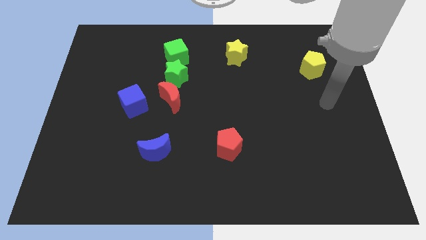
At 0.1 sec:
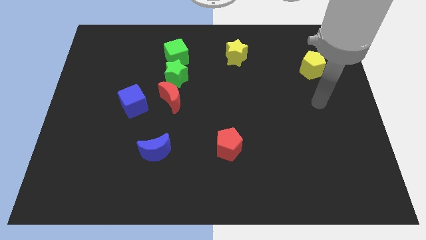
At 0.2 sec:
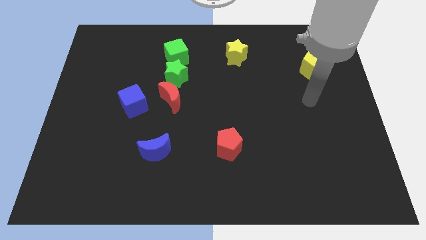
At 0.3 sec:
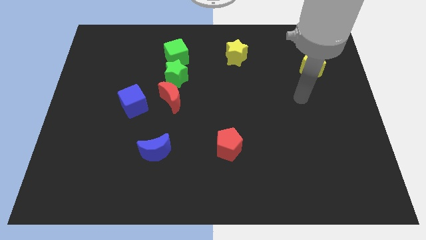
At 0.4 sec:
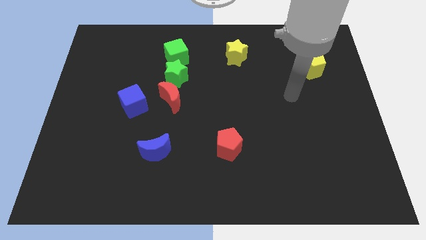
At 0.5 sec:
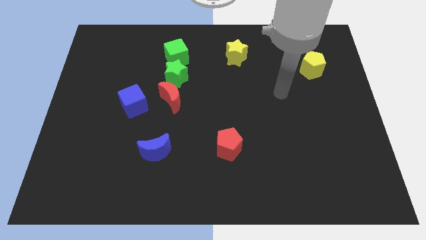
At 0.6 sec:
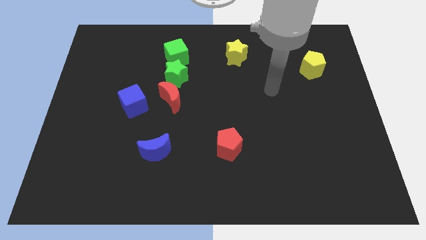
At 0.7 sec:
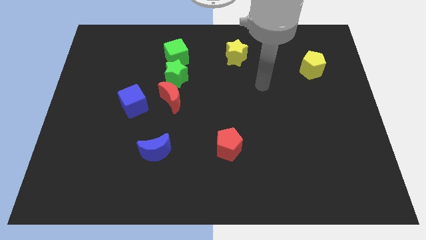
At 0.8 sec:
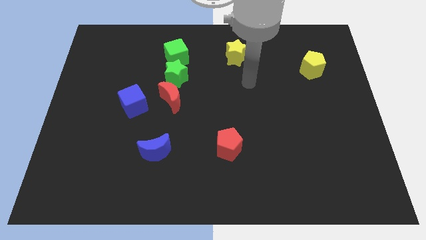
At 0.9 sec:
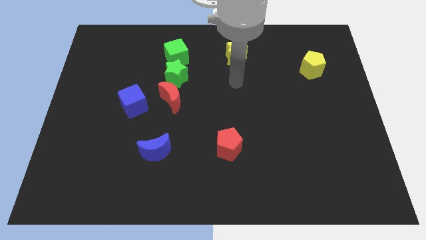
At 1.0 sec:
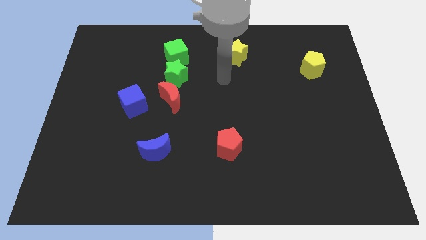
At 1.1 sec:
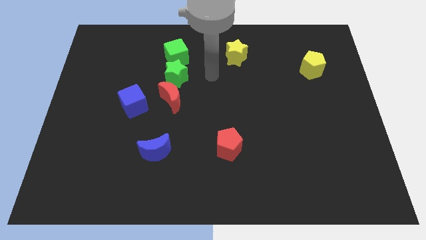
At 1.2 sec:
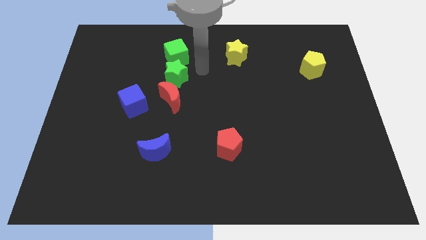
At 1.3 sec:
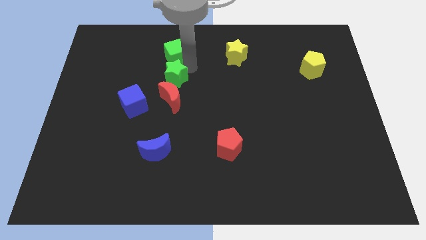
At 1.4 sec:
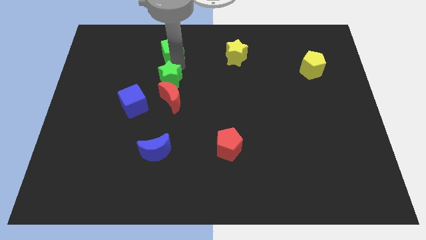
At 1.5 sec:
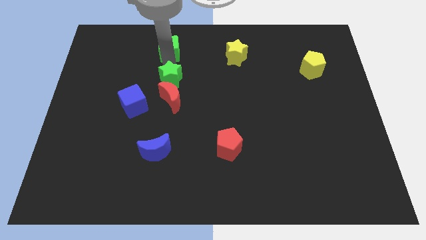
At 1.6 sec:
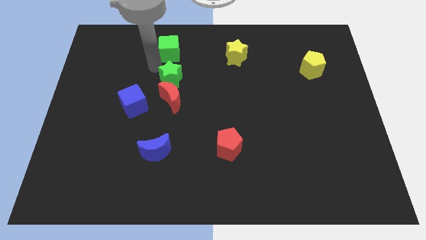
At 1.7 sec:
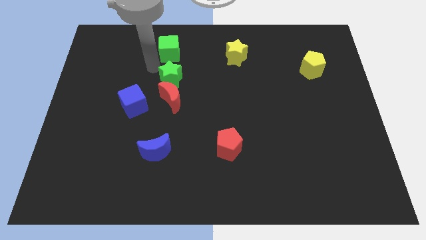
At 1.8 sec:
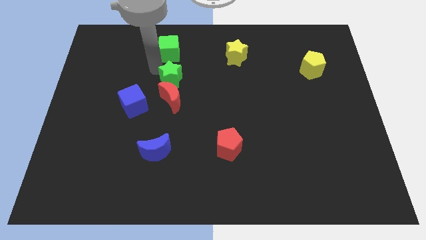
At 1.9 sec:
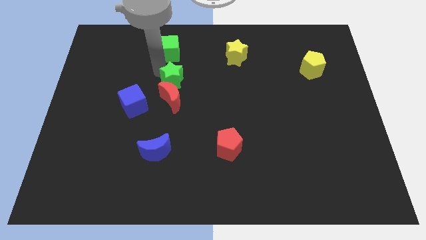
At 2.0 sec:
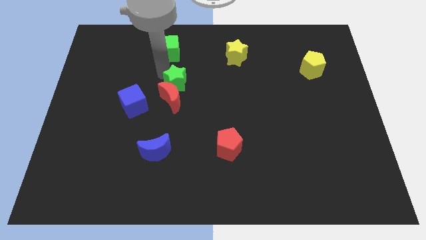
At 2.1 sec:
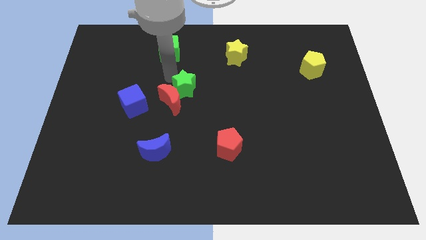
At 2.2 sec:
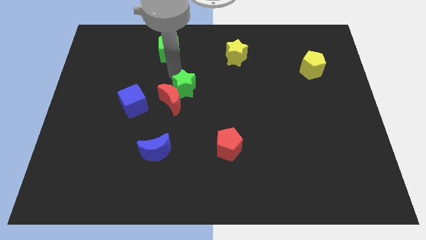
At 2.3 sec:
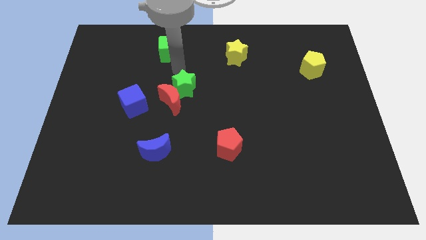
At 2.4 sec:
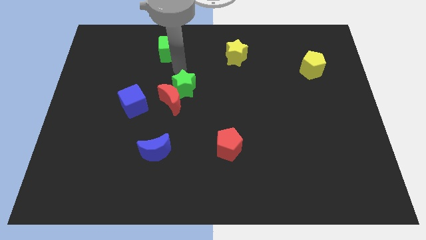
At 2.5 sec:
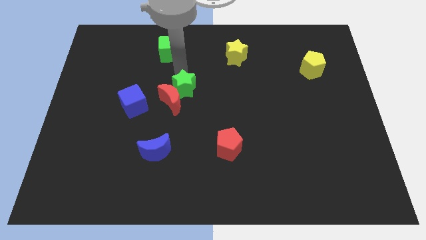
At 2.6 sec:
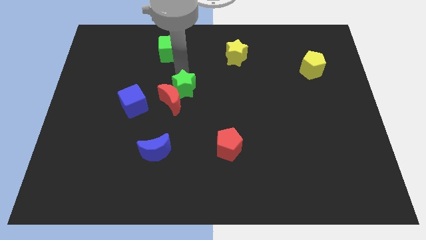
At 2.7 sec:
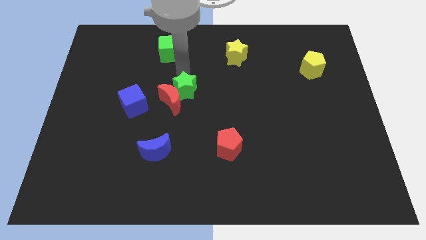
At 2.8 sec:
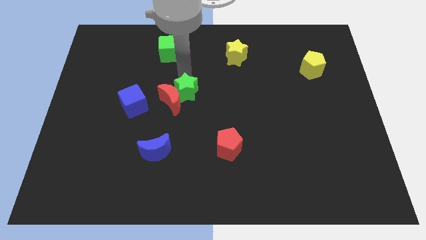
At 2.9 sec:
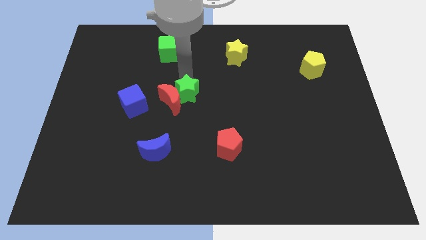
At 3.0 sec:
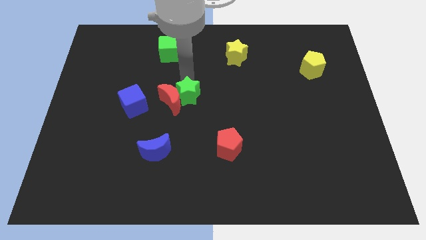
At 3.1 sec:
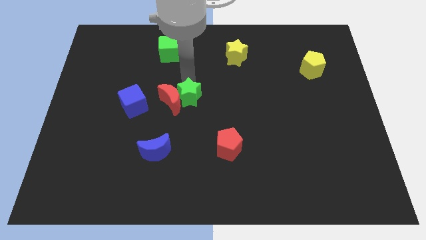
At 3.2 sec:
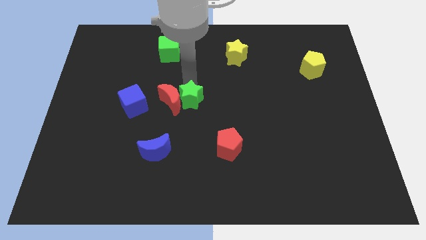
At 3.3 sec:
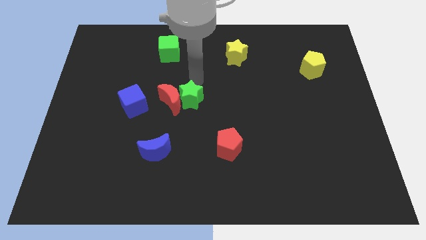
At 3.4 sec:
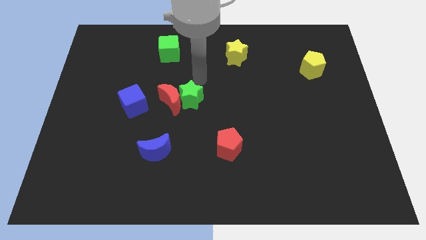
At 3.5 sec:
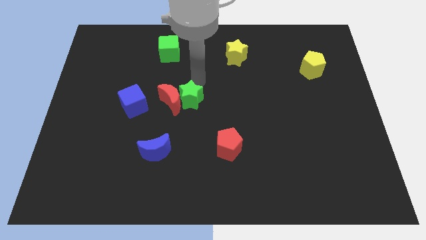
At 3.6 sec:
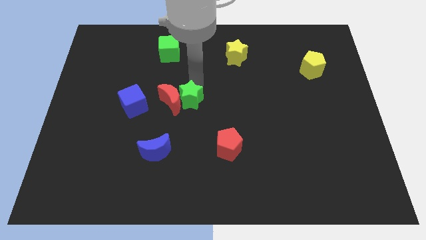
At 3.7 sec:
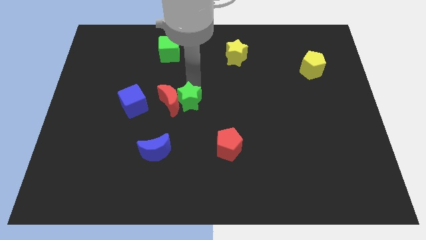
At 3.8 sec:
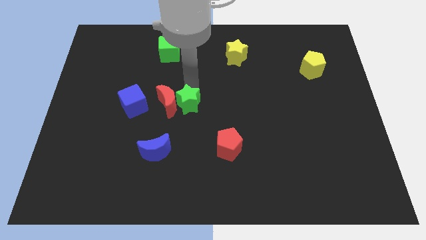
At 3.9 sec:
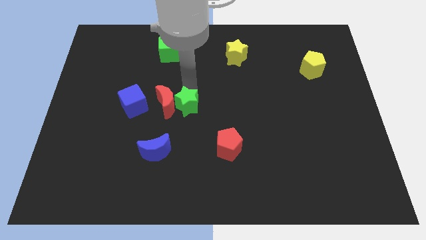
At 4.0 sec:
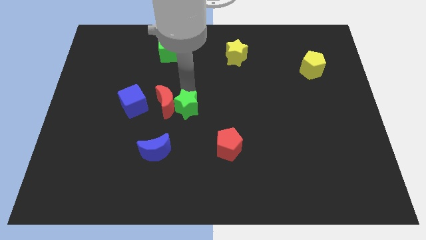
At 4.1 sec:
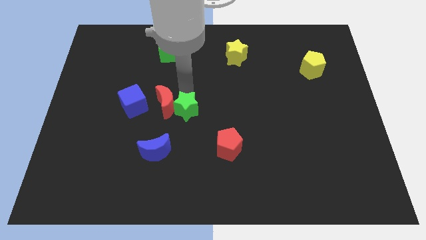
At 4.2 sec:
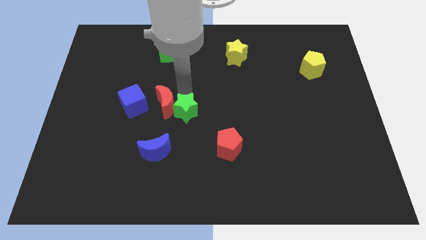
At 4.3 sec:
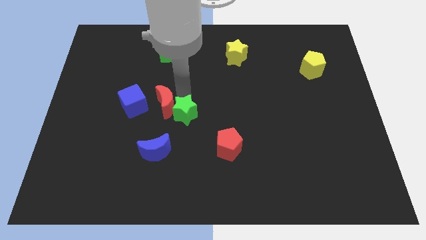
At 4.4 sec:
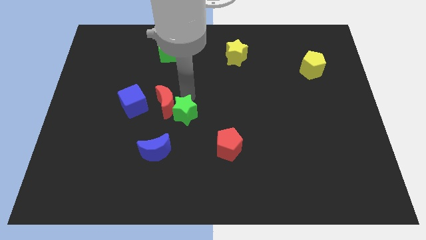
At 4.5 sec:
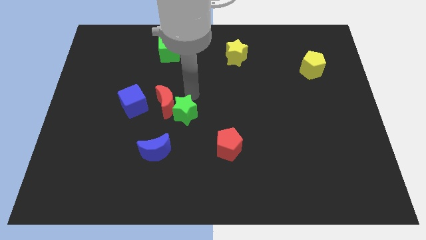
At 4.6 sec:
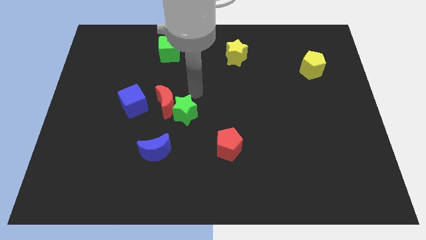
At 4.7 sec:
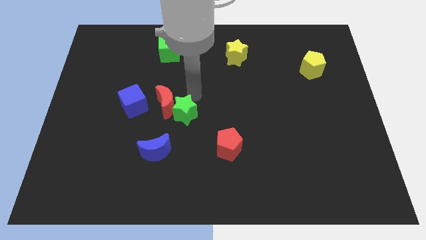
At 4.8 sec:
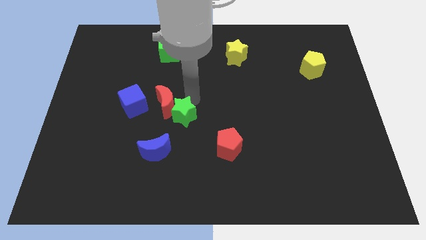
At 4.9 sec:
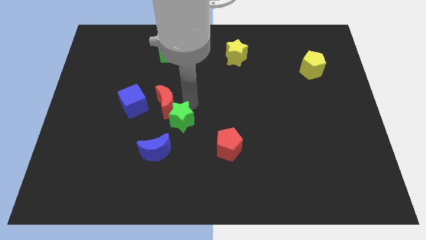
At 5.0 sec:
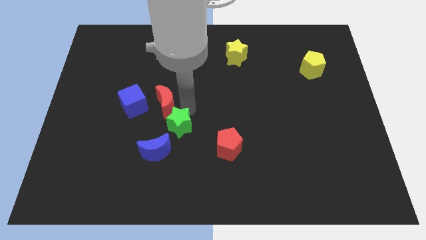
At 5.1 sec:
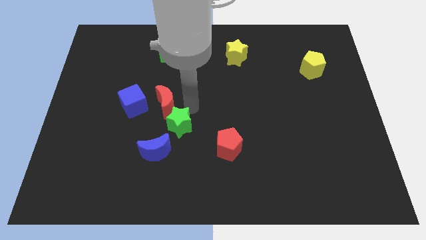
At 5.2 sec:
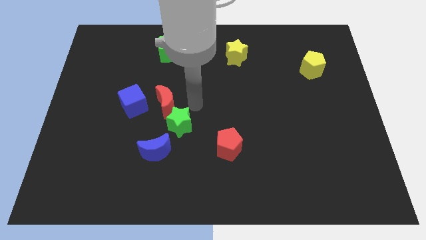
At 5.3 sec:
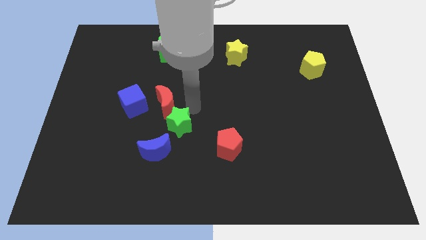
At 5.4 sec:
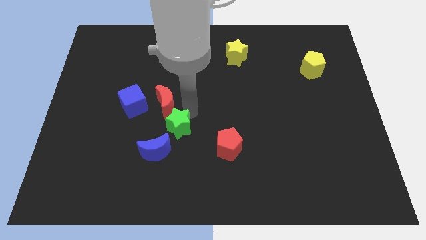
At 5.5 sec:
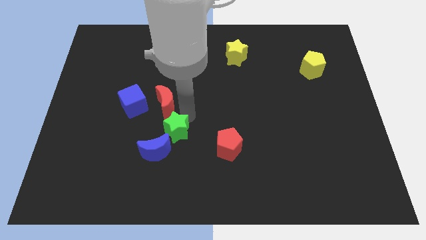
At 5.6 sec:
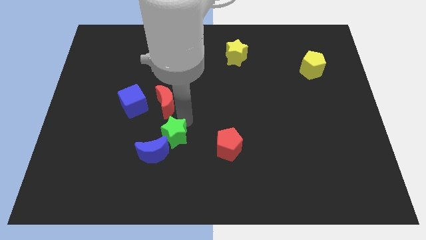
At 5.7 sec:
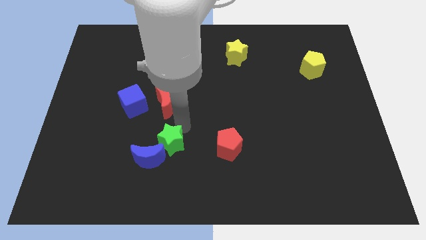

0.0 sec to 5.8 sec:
slide the green star next to the blue moon

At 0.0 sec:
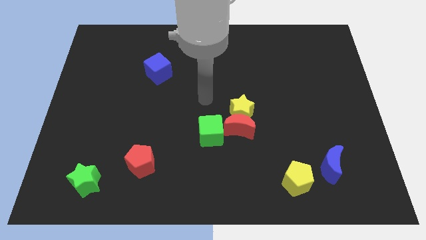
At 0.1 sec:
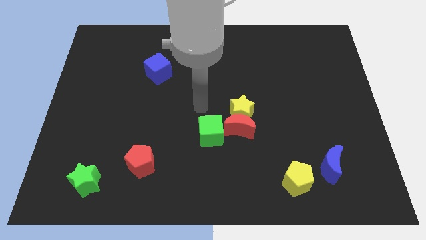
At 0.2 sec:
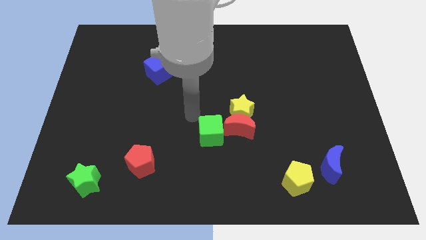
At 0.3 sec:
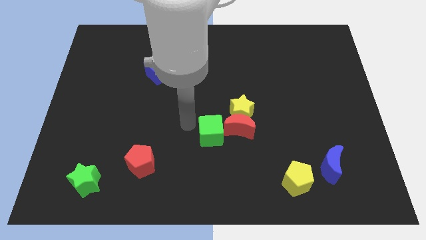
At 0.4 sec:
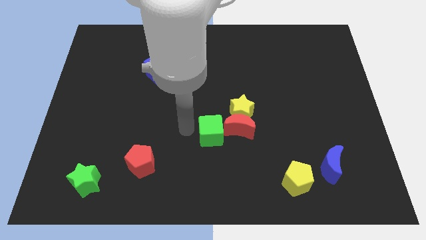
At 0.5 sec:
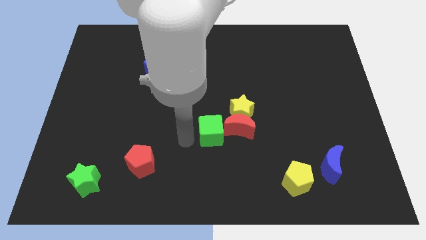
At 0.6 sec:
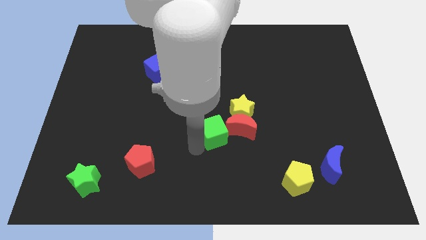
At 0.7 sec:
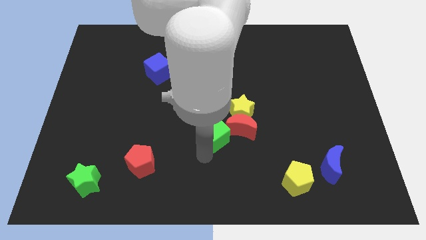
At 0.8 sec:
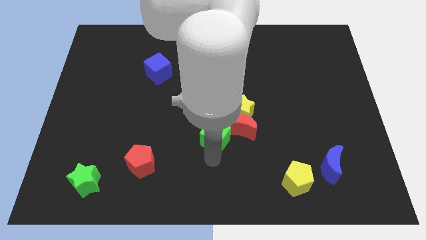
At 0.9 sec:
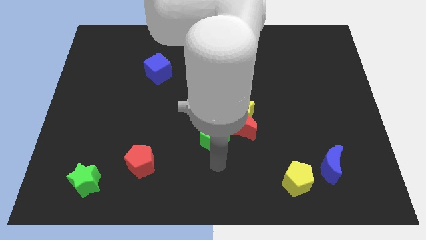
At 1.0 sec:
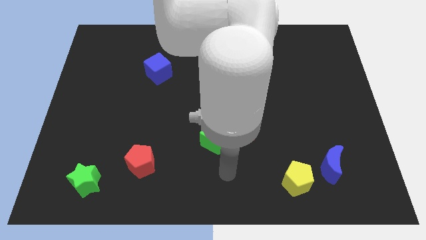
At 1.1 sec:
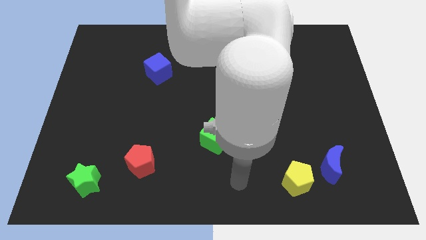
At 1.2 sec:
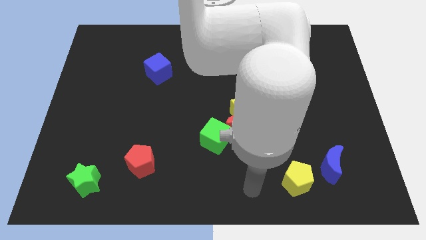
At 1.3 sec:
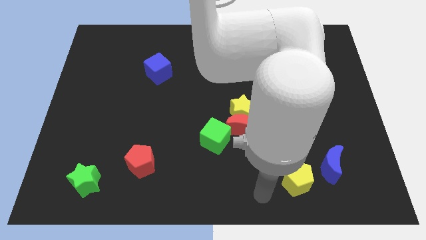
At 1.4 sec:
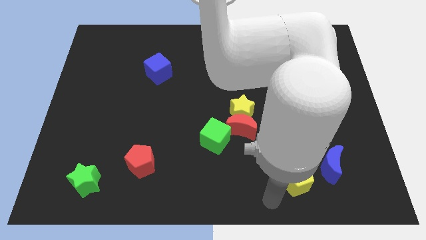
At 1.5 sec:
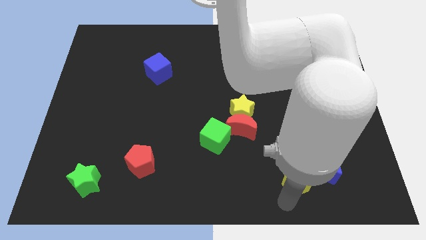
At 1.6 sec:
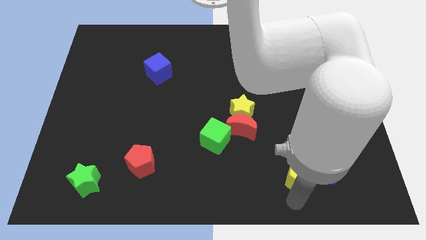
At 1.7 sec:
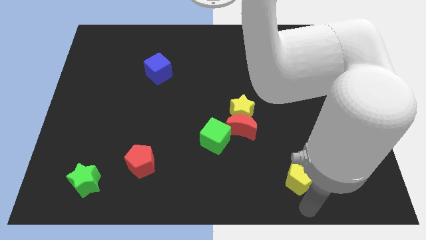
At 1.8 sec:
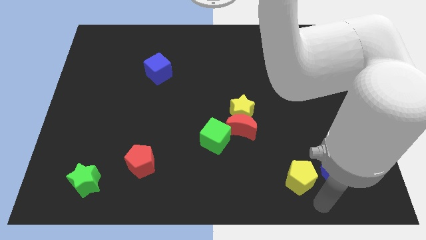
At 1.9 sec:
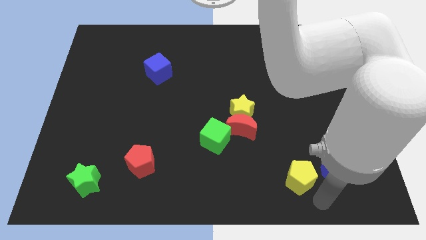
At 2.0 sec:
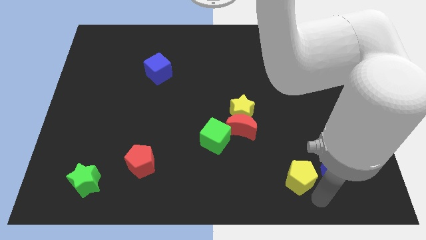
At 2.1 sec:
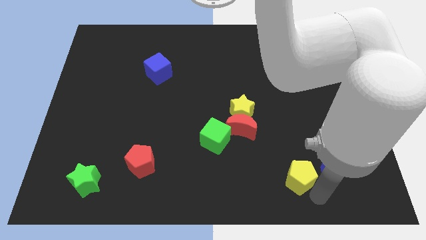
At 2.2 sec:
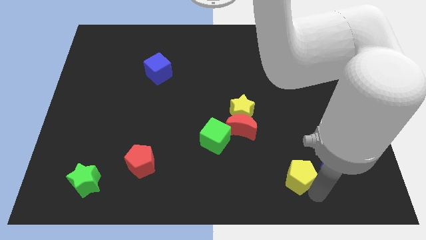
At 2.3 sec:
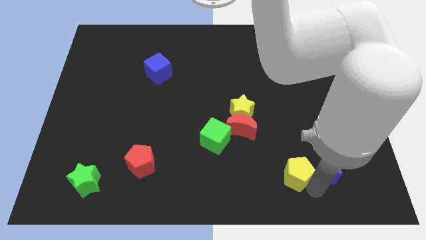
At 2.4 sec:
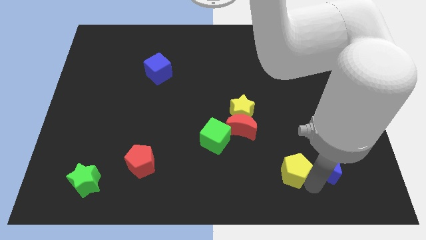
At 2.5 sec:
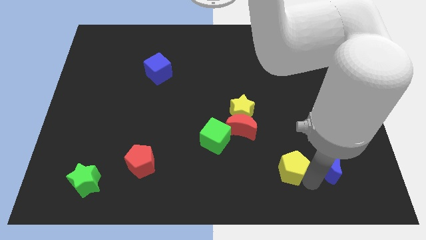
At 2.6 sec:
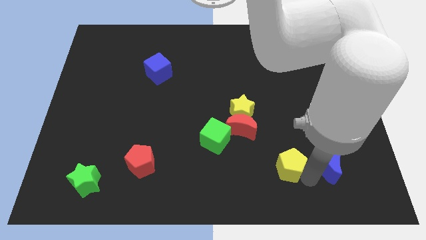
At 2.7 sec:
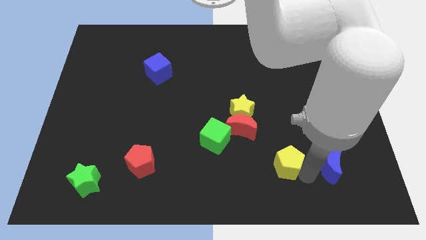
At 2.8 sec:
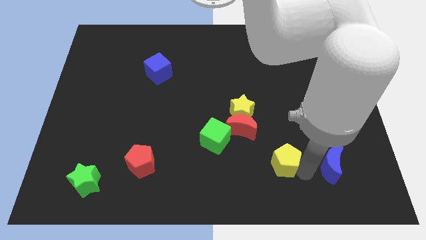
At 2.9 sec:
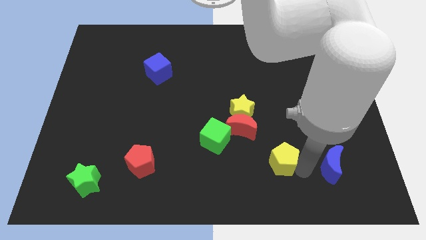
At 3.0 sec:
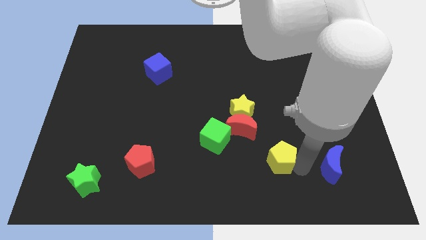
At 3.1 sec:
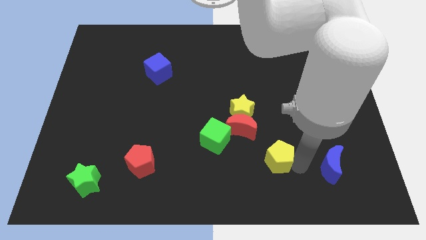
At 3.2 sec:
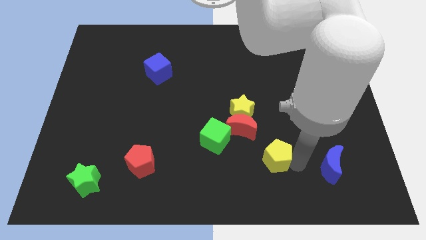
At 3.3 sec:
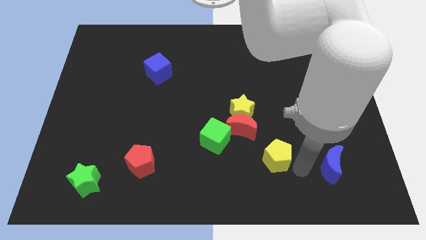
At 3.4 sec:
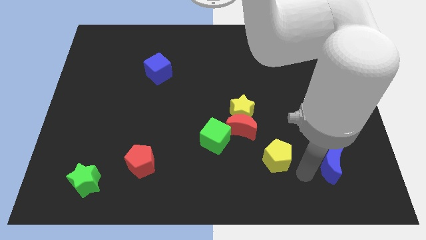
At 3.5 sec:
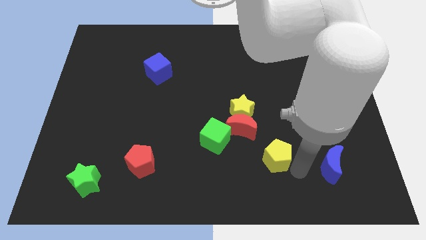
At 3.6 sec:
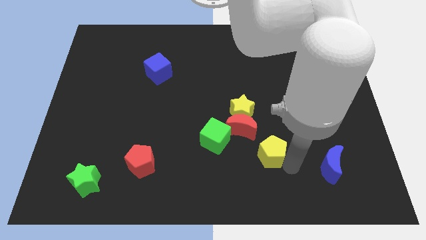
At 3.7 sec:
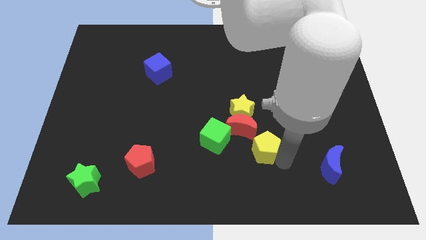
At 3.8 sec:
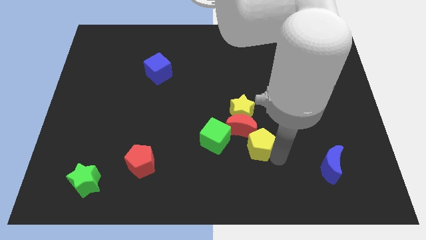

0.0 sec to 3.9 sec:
move the yellow pentagon next to the red moon
